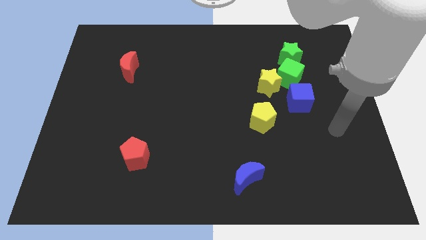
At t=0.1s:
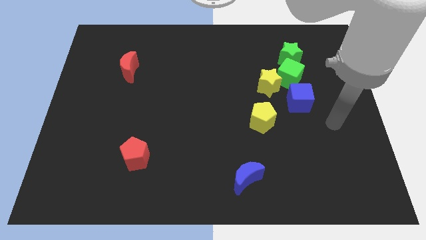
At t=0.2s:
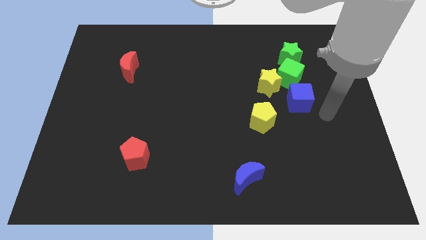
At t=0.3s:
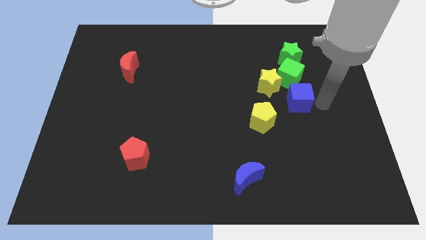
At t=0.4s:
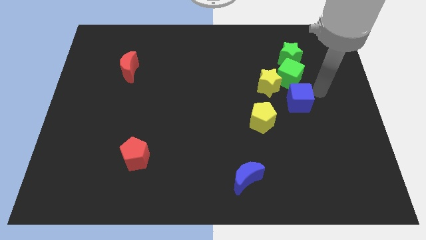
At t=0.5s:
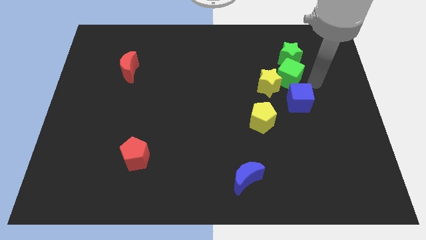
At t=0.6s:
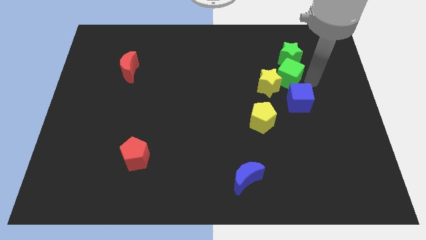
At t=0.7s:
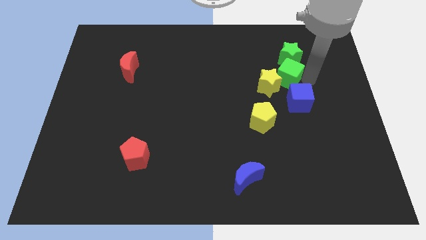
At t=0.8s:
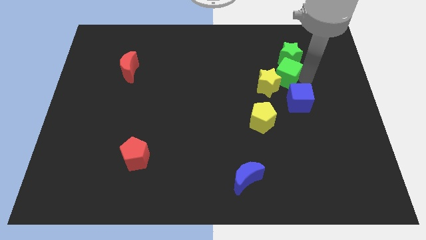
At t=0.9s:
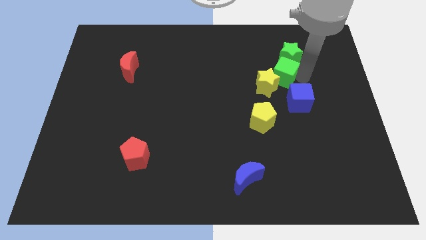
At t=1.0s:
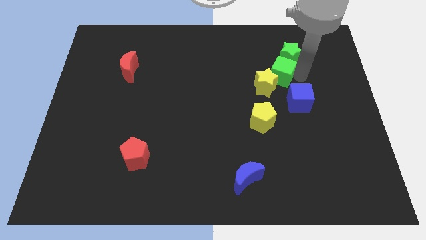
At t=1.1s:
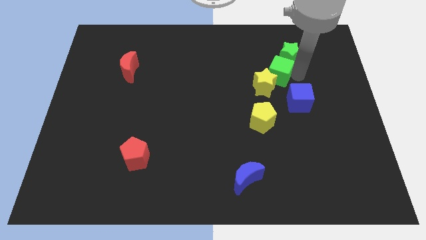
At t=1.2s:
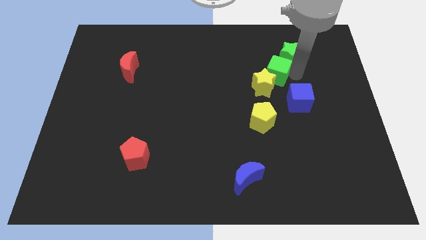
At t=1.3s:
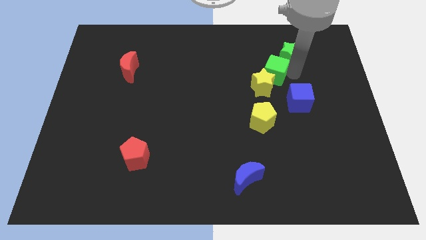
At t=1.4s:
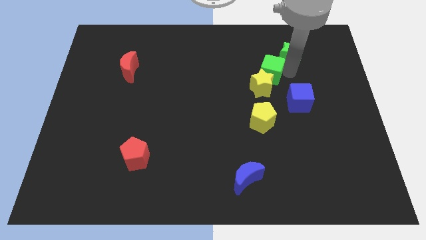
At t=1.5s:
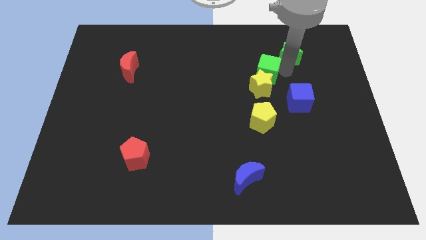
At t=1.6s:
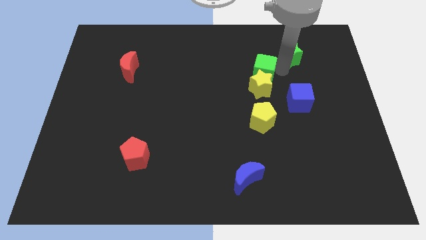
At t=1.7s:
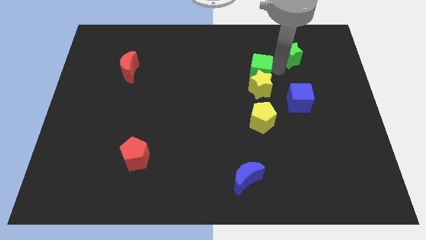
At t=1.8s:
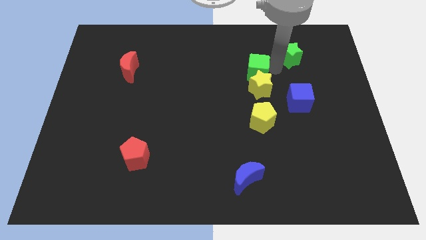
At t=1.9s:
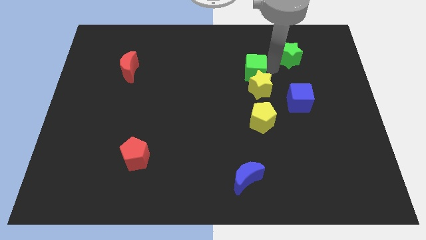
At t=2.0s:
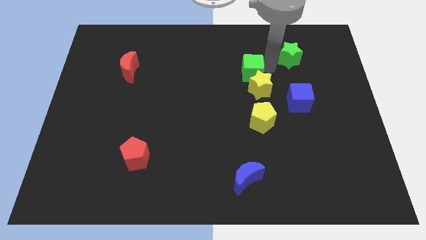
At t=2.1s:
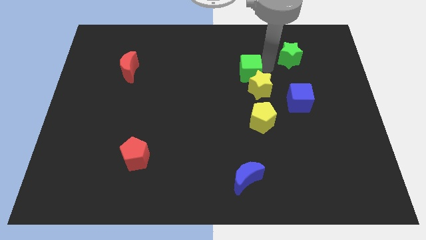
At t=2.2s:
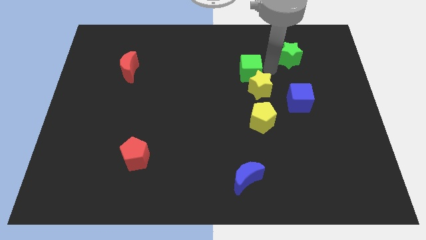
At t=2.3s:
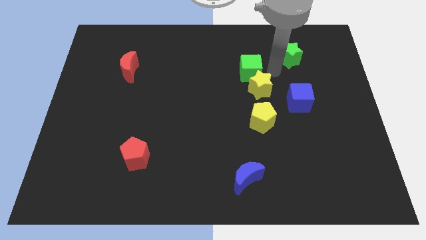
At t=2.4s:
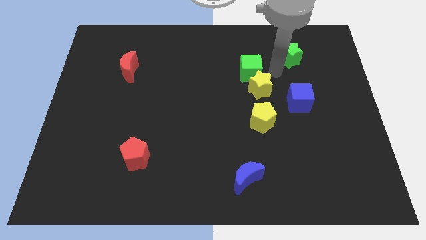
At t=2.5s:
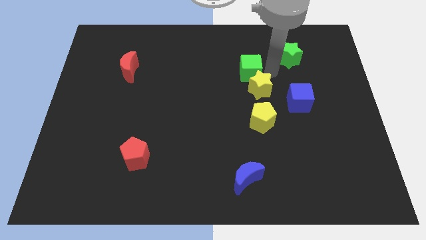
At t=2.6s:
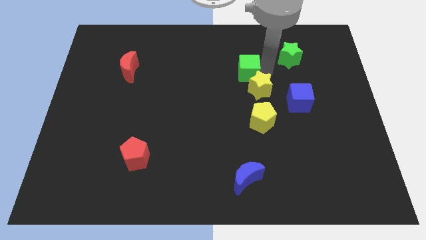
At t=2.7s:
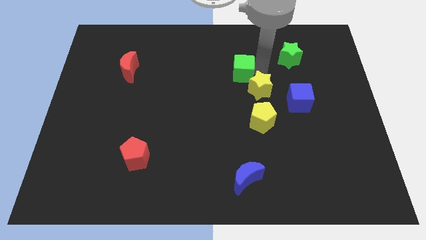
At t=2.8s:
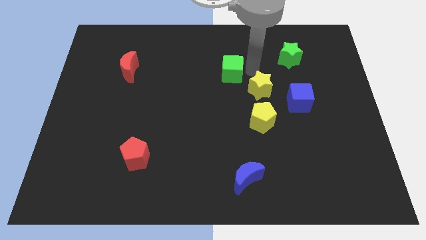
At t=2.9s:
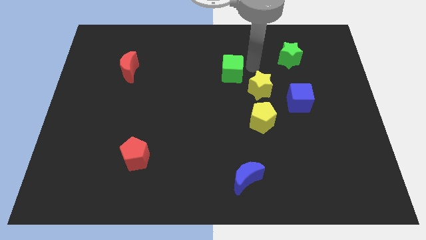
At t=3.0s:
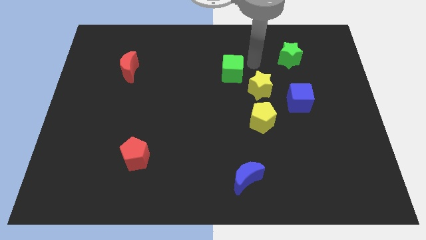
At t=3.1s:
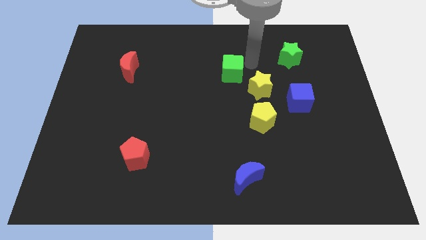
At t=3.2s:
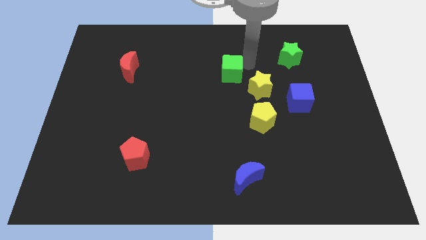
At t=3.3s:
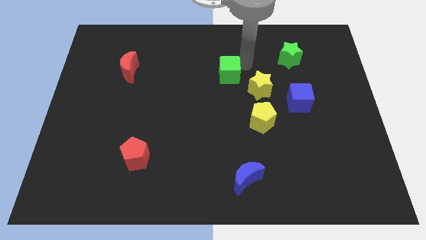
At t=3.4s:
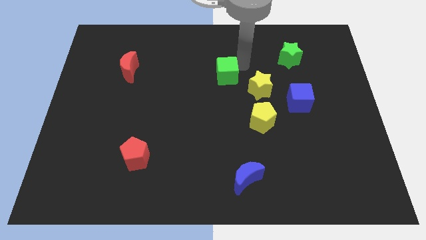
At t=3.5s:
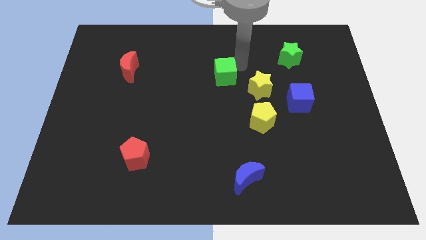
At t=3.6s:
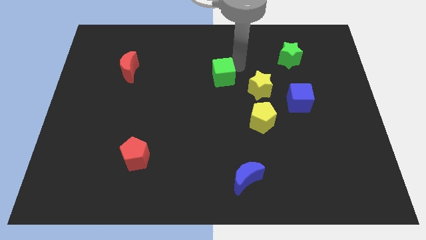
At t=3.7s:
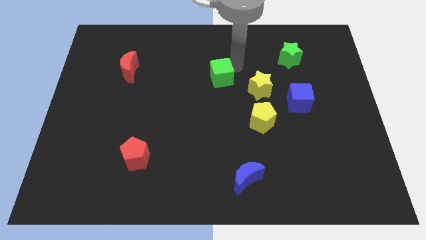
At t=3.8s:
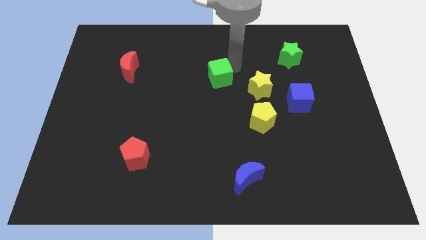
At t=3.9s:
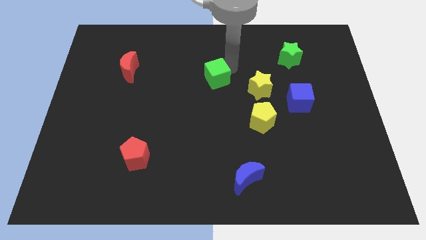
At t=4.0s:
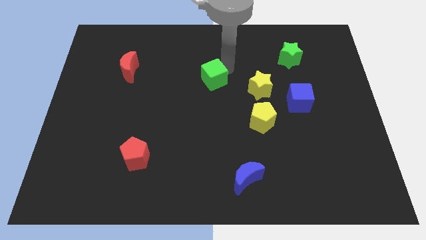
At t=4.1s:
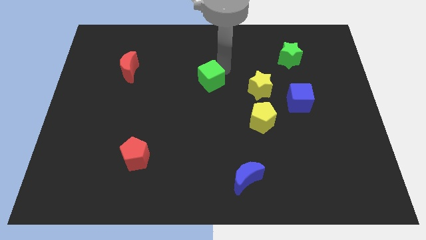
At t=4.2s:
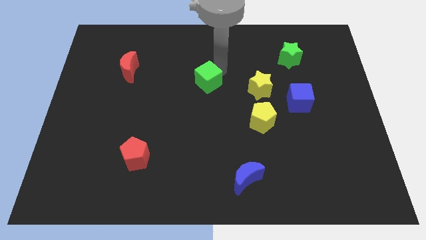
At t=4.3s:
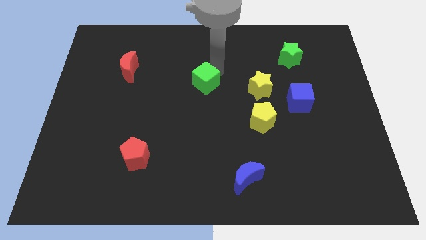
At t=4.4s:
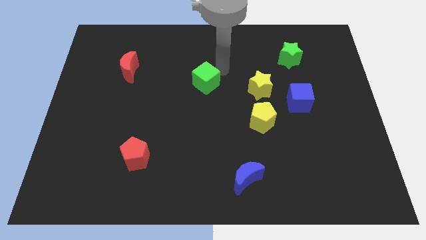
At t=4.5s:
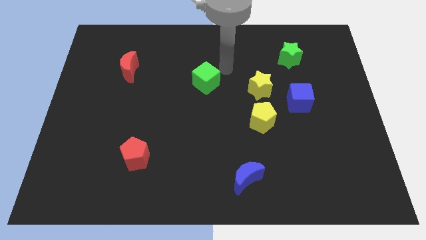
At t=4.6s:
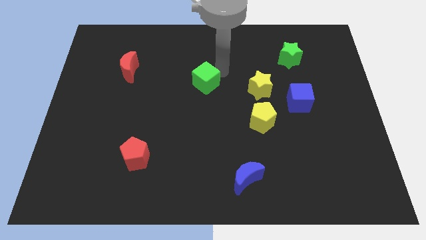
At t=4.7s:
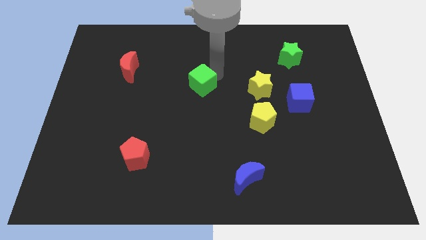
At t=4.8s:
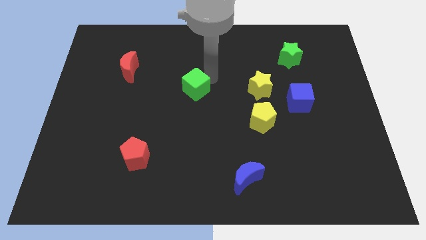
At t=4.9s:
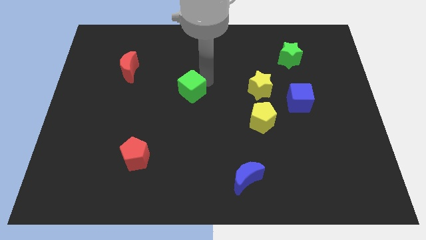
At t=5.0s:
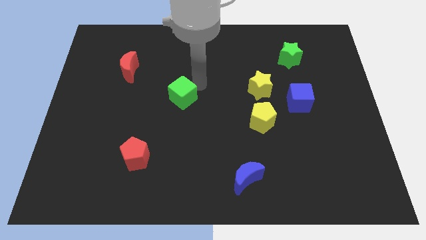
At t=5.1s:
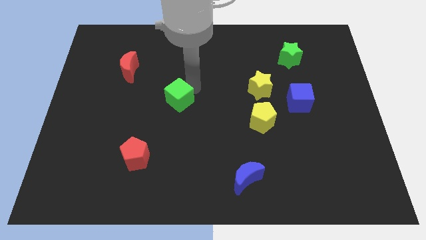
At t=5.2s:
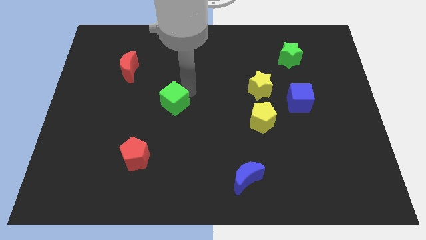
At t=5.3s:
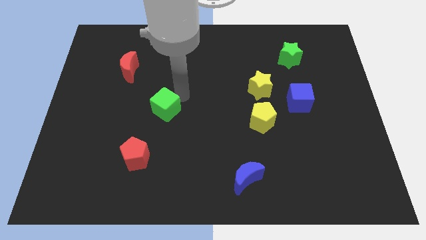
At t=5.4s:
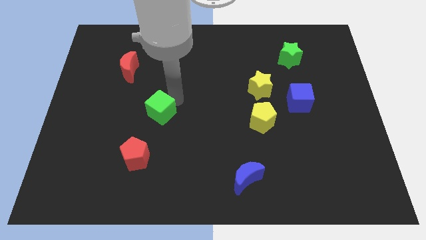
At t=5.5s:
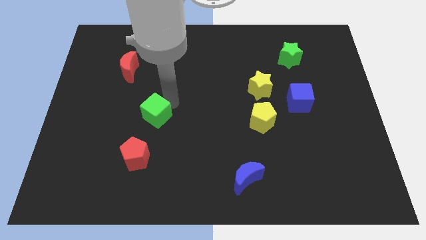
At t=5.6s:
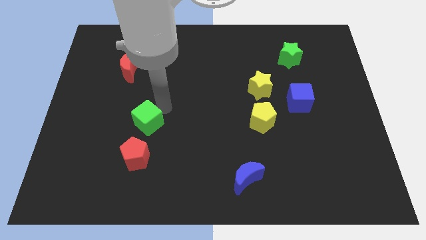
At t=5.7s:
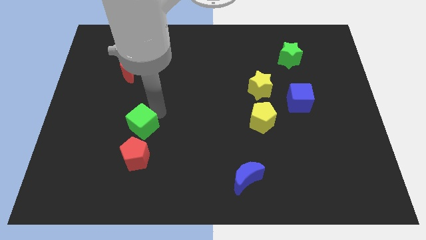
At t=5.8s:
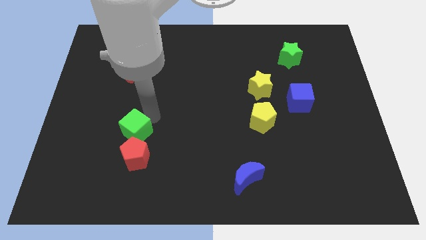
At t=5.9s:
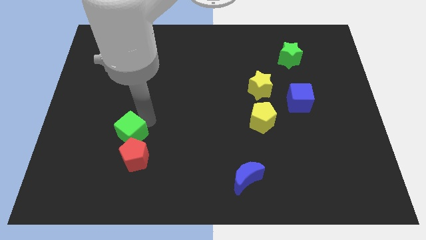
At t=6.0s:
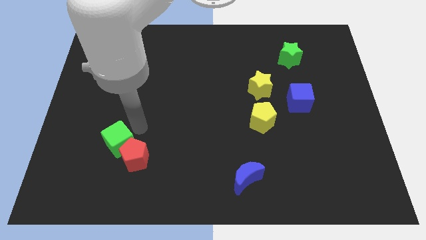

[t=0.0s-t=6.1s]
slide the green cube just left of the red pentagon

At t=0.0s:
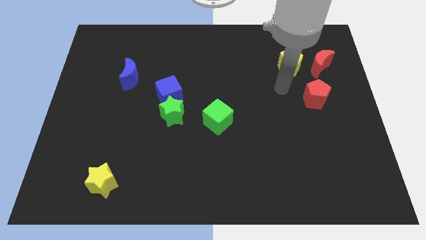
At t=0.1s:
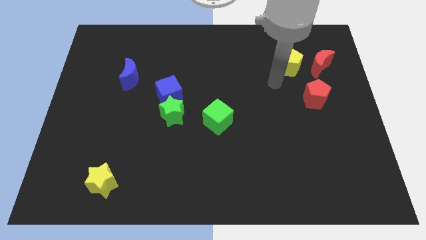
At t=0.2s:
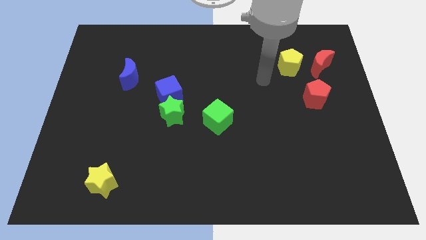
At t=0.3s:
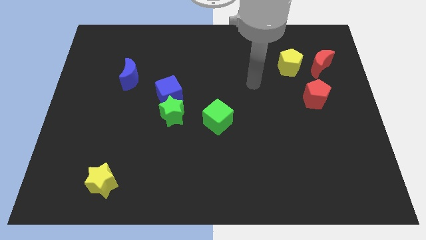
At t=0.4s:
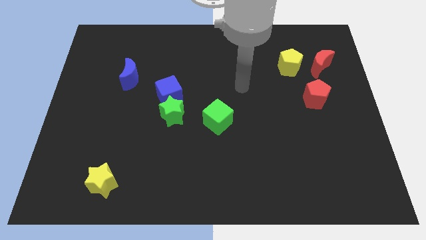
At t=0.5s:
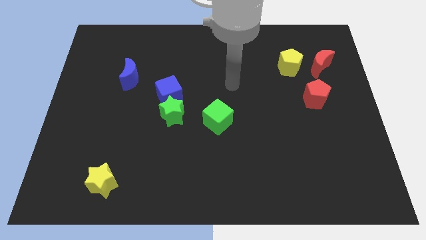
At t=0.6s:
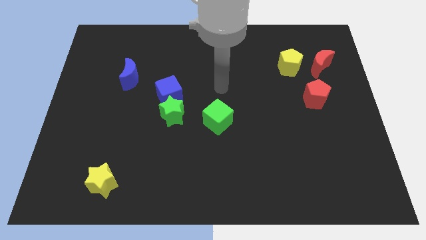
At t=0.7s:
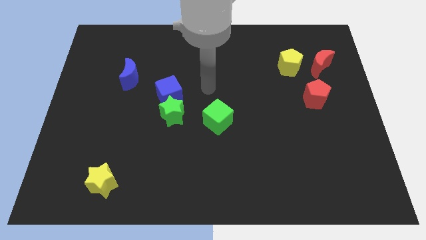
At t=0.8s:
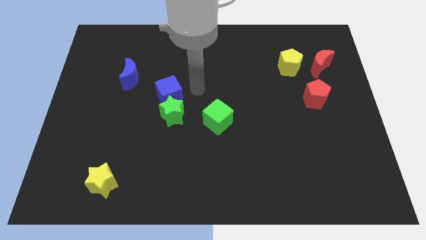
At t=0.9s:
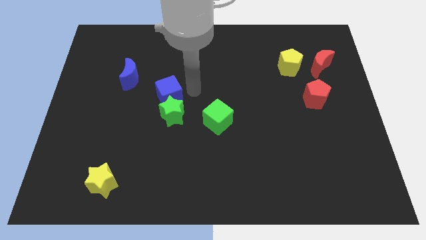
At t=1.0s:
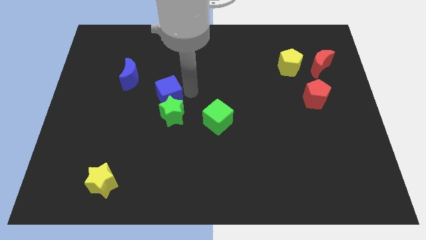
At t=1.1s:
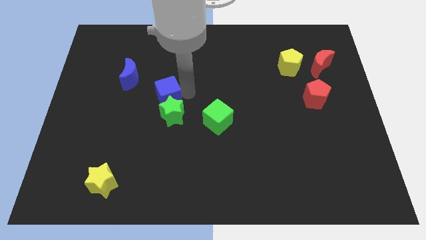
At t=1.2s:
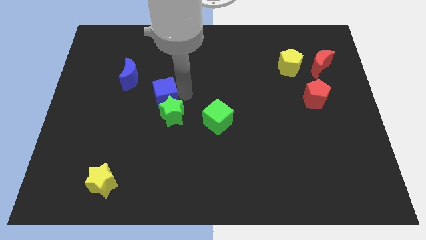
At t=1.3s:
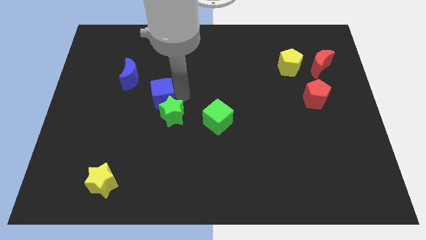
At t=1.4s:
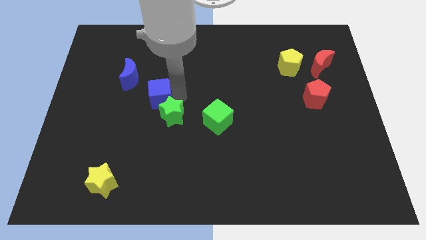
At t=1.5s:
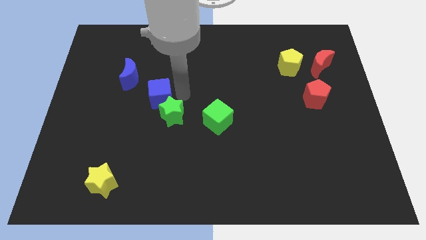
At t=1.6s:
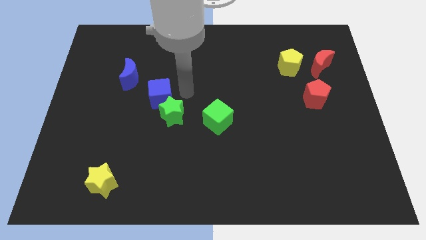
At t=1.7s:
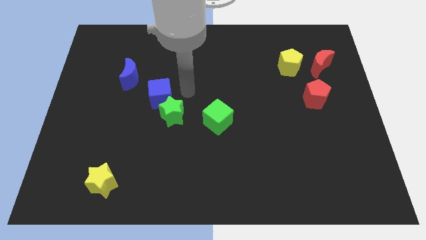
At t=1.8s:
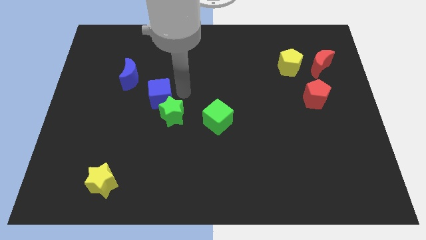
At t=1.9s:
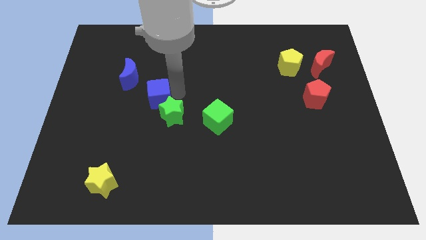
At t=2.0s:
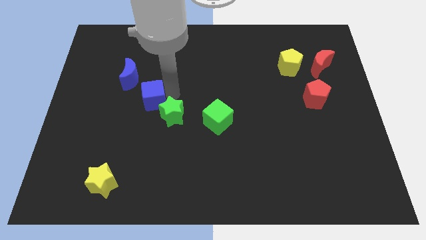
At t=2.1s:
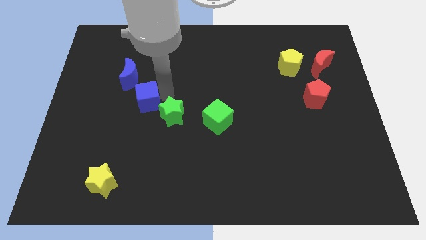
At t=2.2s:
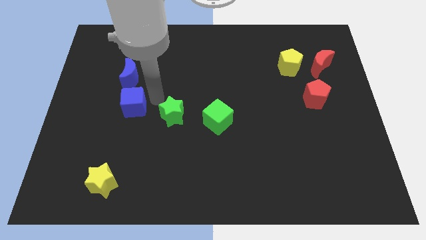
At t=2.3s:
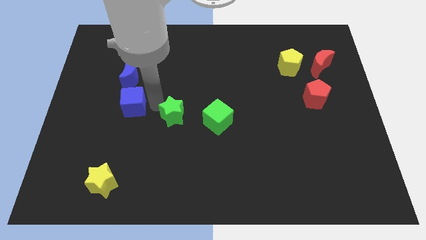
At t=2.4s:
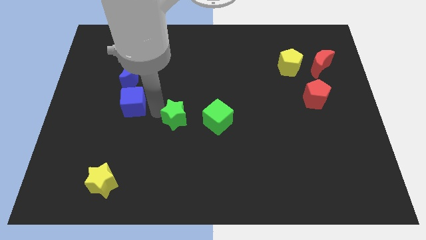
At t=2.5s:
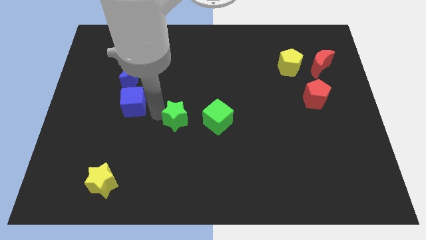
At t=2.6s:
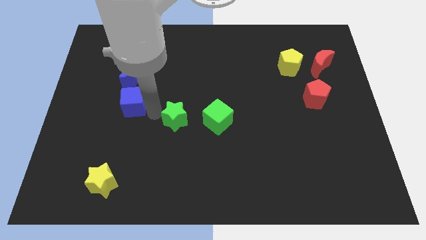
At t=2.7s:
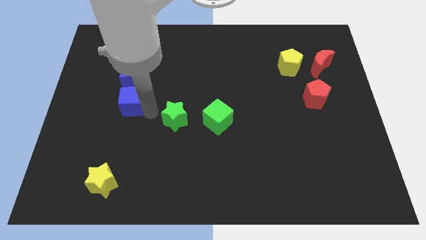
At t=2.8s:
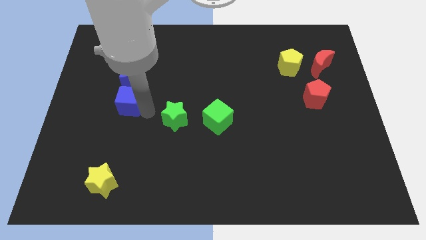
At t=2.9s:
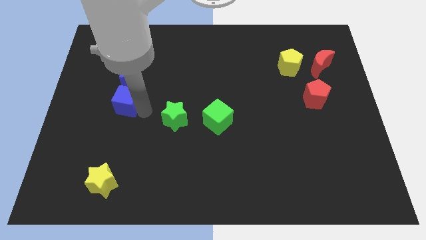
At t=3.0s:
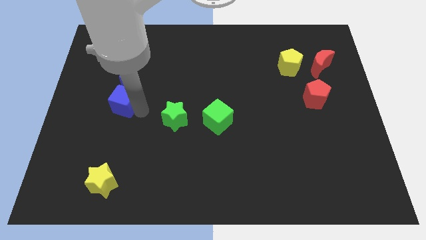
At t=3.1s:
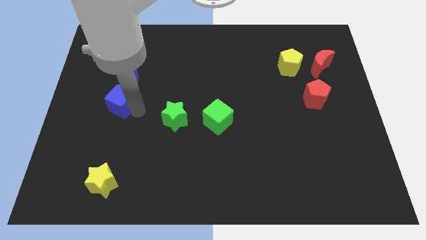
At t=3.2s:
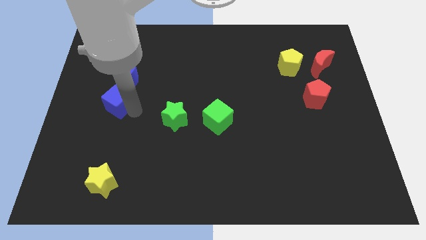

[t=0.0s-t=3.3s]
move the blue cube diagonally down and to the left of the blue moon
